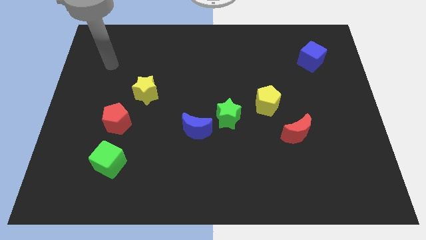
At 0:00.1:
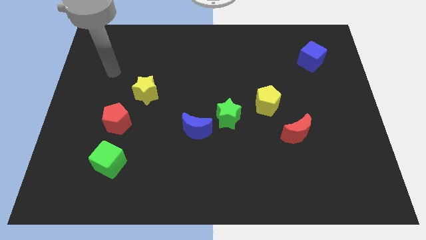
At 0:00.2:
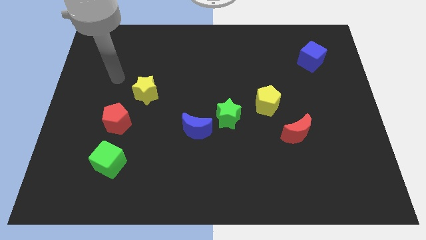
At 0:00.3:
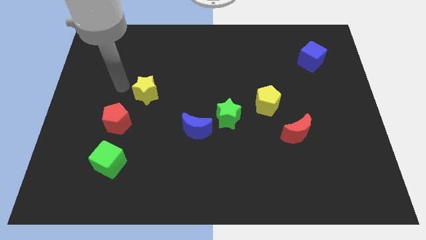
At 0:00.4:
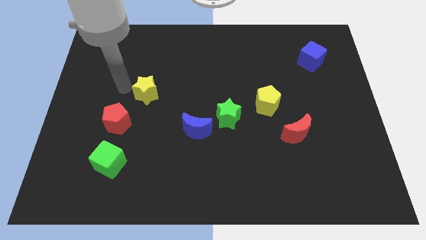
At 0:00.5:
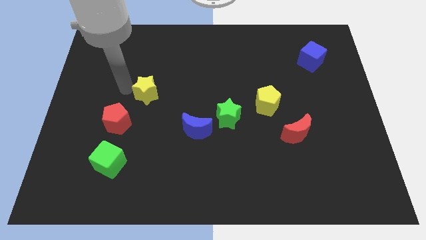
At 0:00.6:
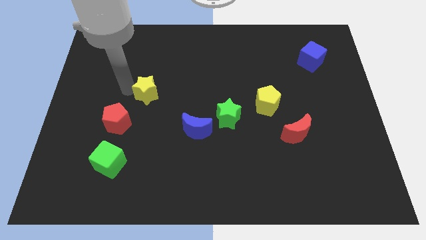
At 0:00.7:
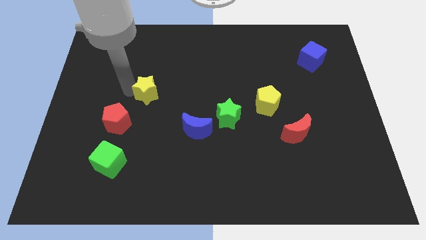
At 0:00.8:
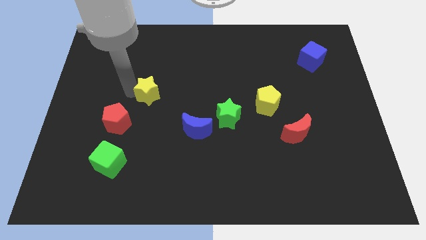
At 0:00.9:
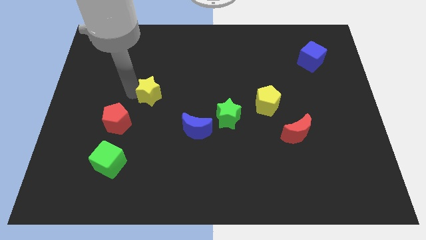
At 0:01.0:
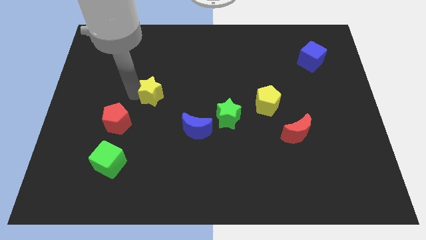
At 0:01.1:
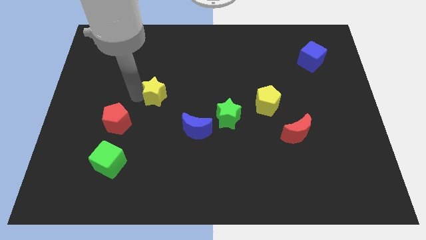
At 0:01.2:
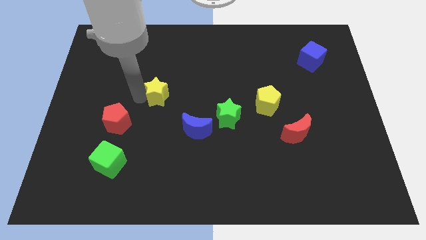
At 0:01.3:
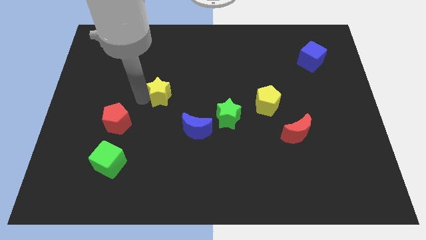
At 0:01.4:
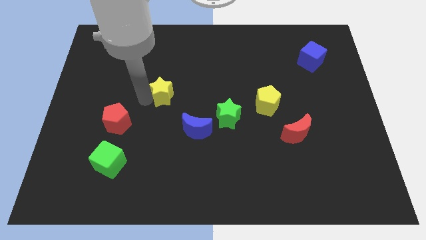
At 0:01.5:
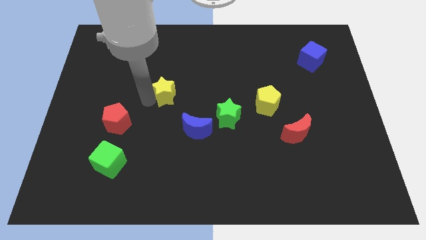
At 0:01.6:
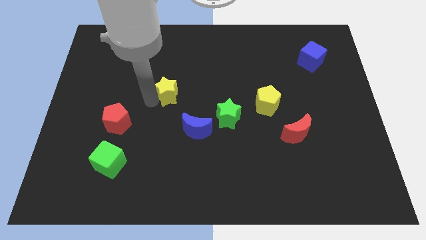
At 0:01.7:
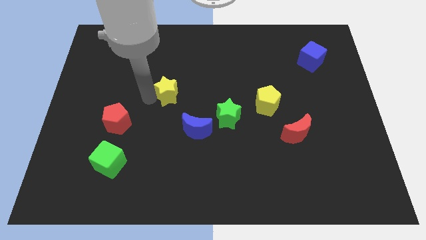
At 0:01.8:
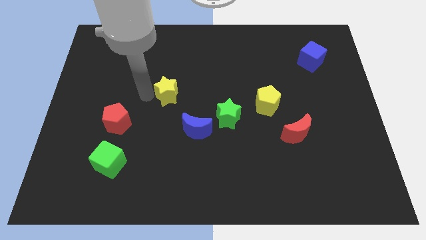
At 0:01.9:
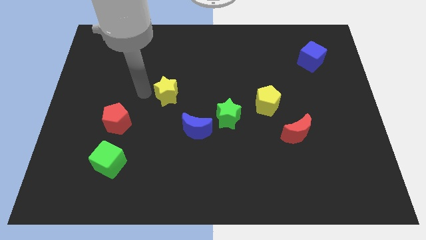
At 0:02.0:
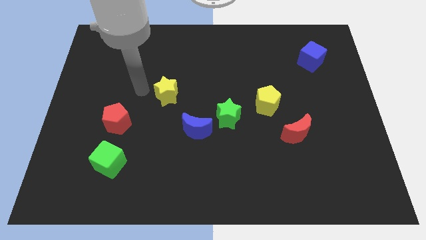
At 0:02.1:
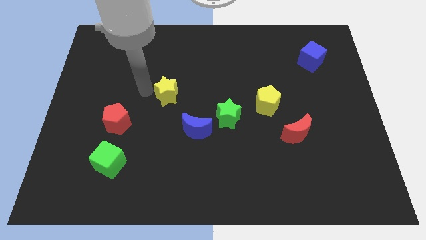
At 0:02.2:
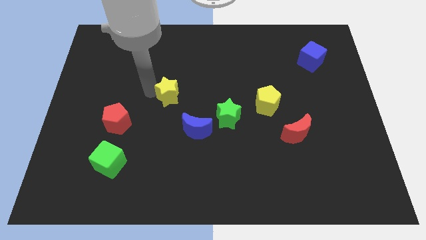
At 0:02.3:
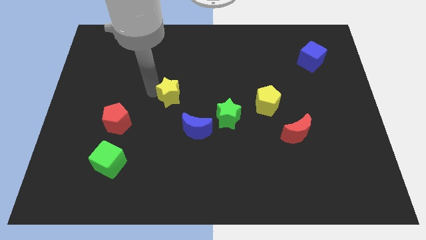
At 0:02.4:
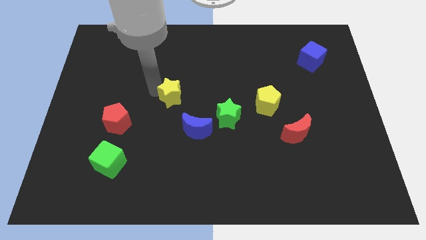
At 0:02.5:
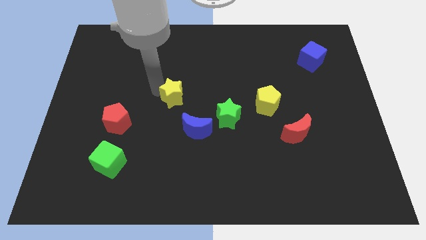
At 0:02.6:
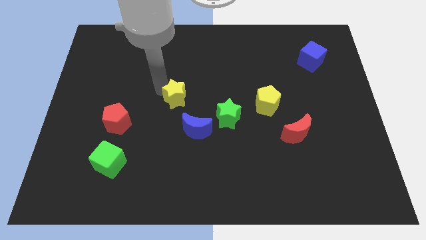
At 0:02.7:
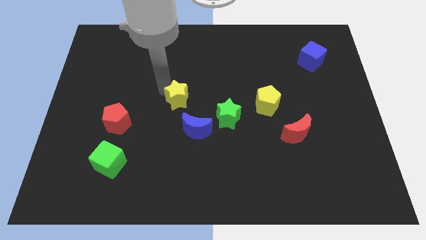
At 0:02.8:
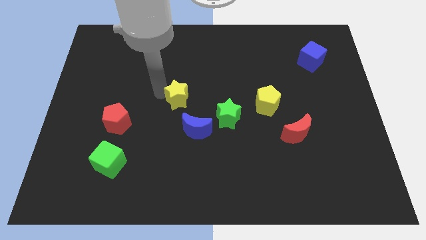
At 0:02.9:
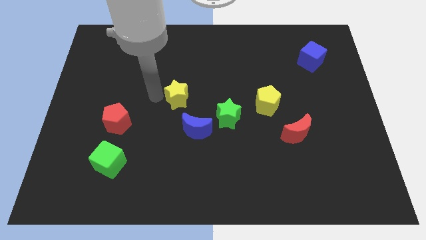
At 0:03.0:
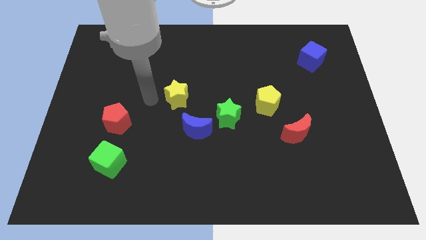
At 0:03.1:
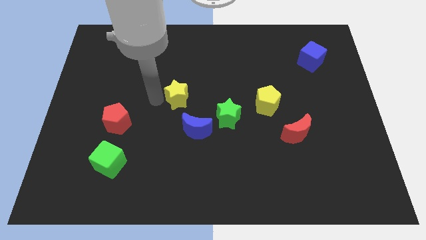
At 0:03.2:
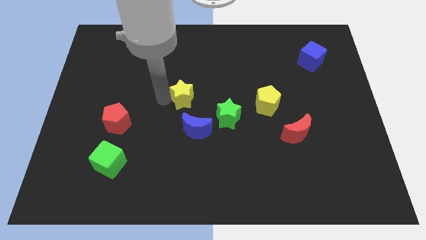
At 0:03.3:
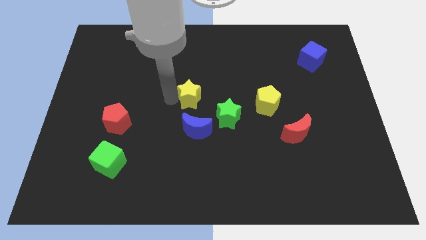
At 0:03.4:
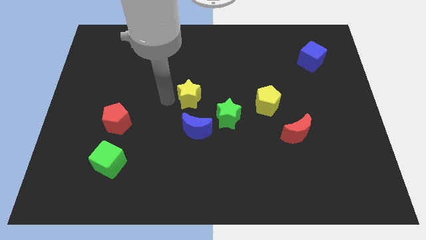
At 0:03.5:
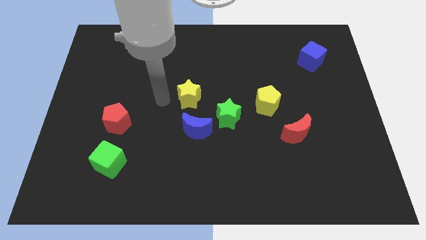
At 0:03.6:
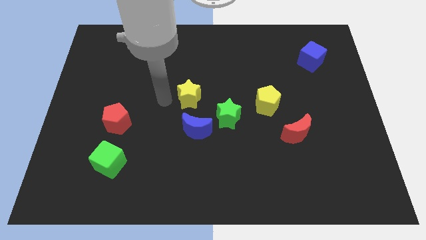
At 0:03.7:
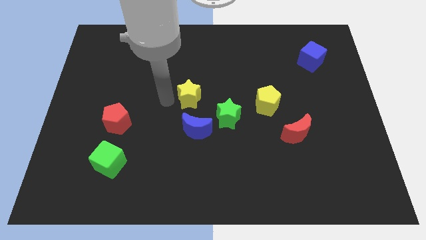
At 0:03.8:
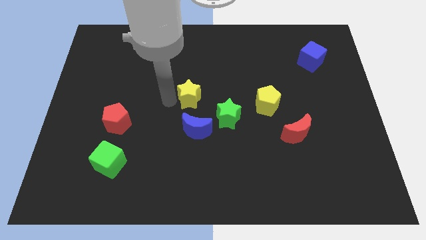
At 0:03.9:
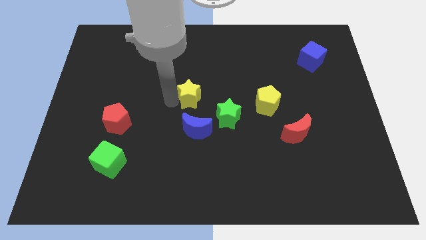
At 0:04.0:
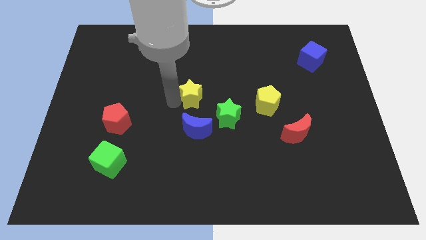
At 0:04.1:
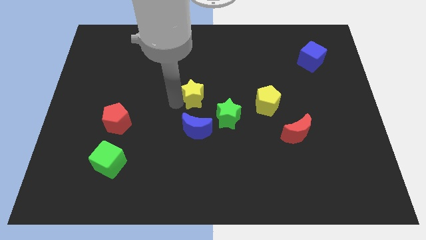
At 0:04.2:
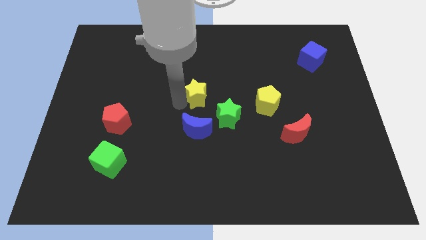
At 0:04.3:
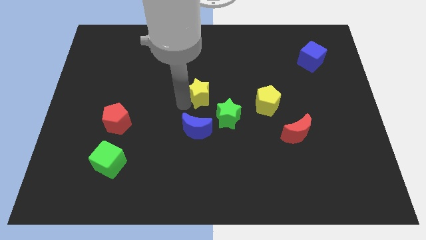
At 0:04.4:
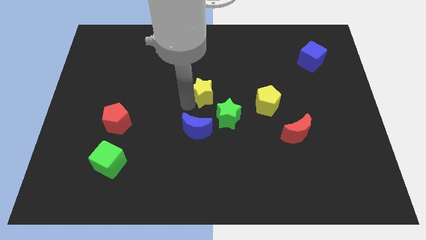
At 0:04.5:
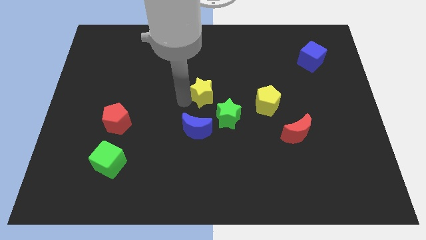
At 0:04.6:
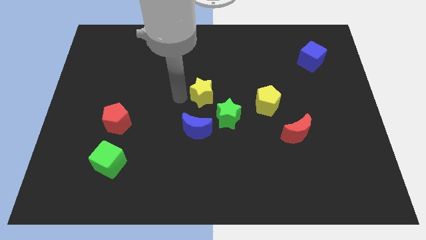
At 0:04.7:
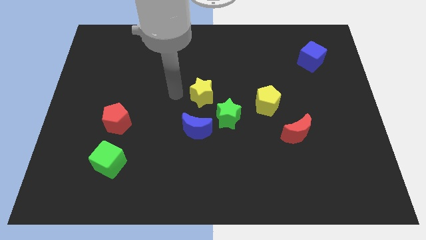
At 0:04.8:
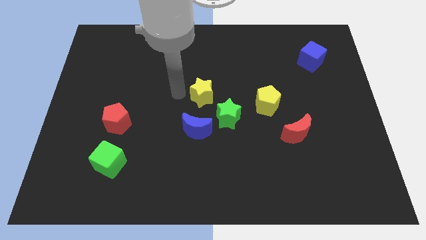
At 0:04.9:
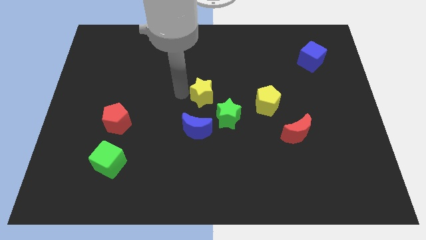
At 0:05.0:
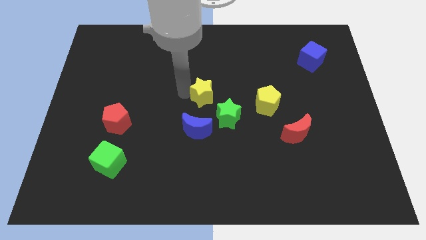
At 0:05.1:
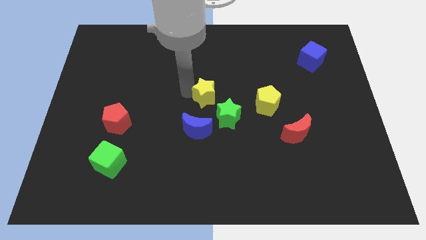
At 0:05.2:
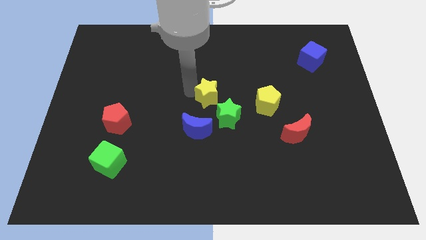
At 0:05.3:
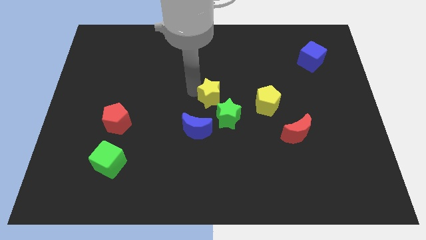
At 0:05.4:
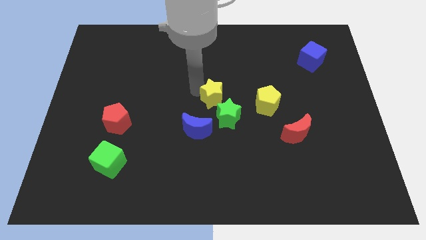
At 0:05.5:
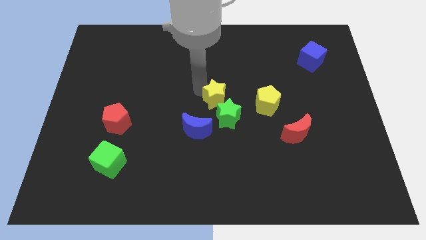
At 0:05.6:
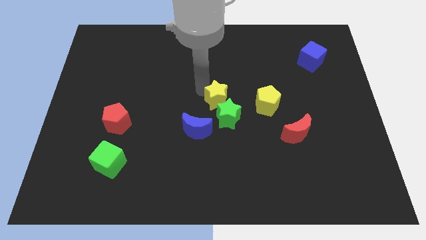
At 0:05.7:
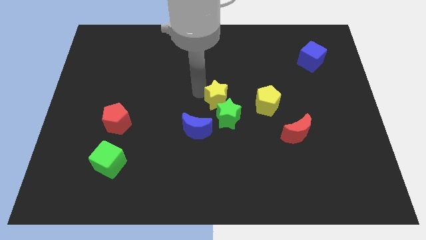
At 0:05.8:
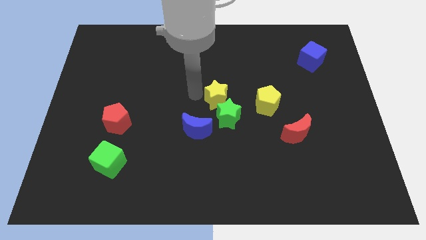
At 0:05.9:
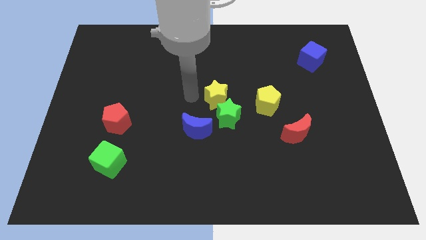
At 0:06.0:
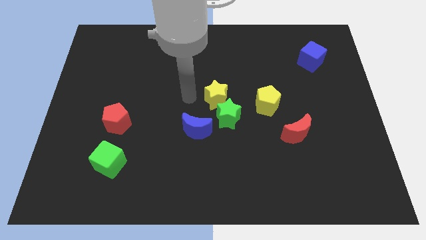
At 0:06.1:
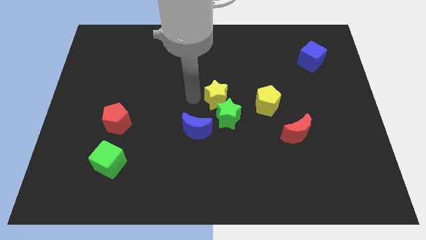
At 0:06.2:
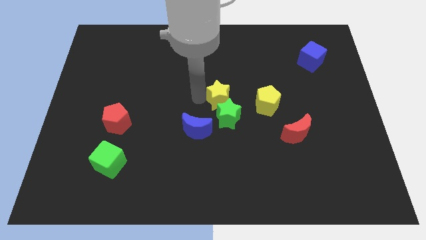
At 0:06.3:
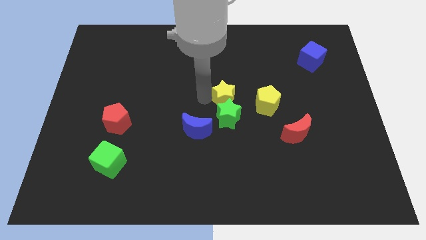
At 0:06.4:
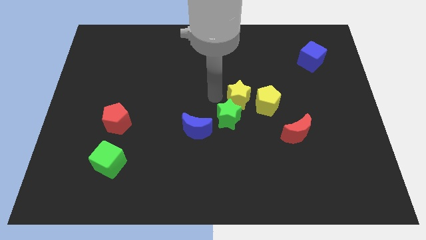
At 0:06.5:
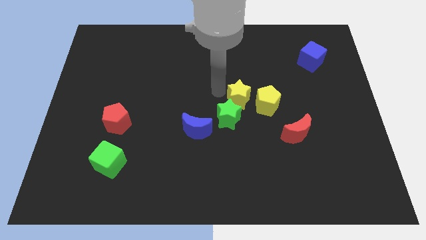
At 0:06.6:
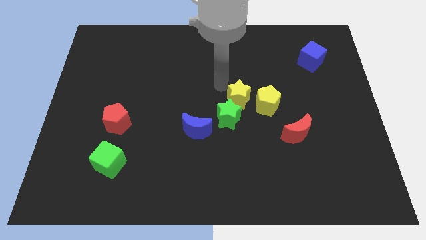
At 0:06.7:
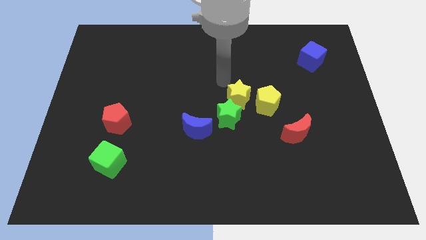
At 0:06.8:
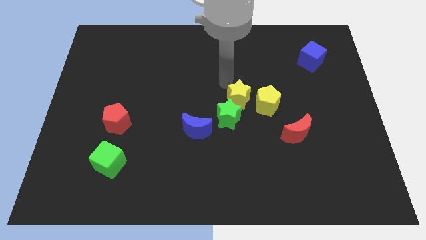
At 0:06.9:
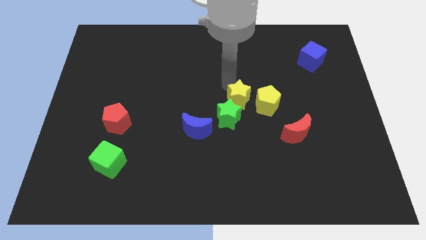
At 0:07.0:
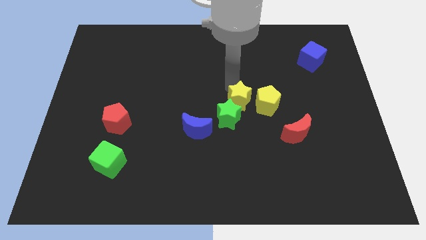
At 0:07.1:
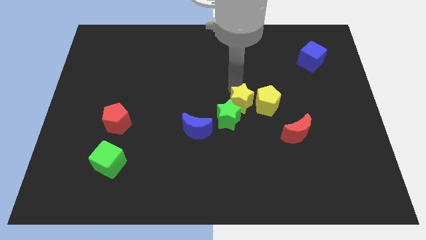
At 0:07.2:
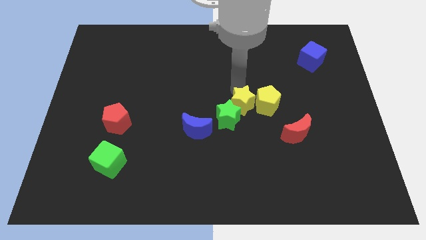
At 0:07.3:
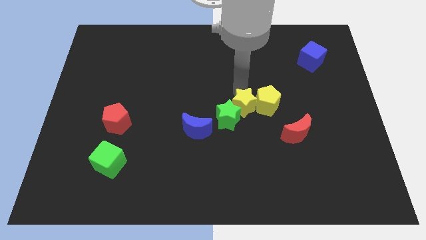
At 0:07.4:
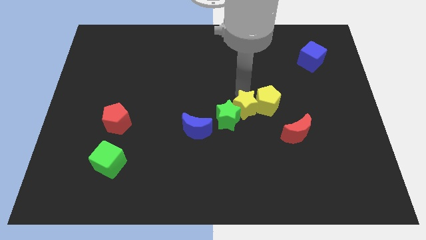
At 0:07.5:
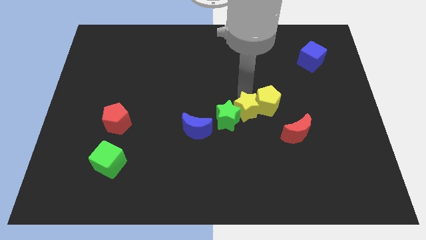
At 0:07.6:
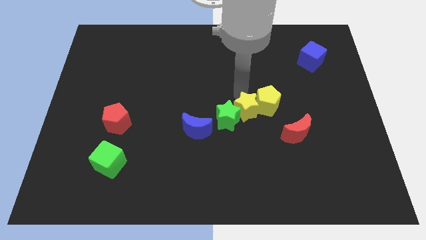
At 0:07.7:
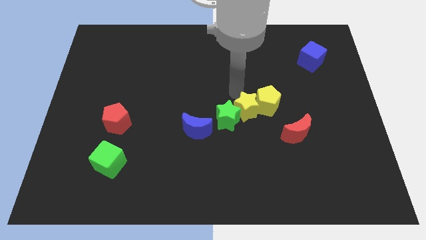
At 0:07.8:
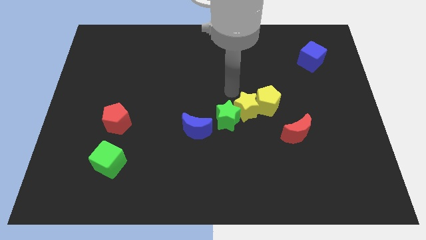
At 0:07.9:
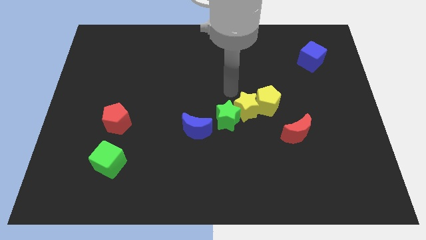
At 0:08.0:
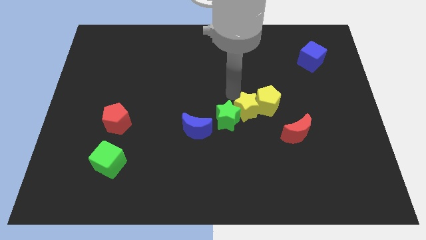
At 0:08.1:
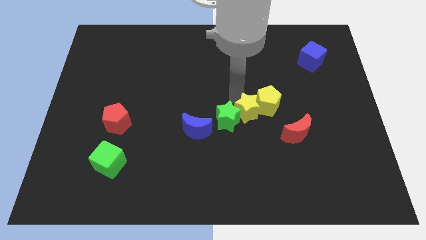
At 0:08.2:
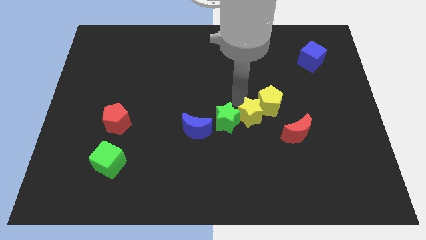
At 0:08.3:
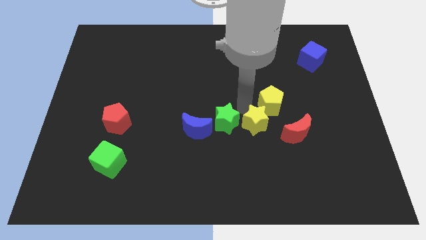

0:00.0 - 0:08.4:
push the yellow star to the bottom side of the yellow pentagon
